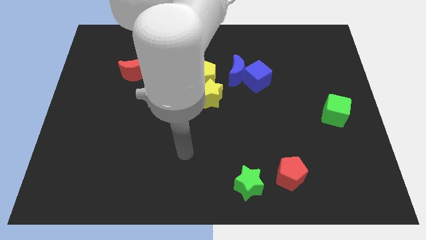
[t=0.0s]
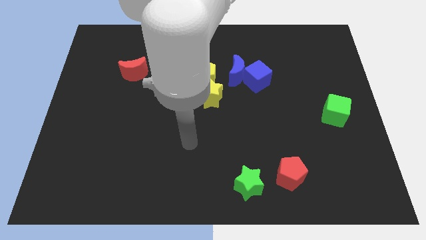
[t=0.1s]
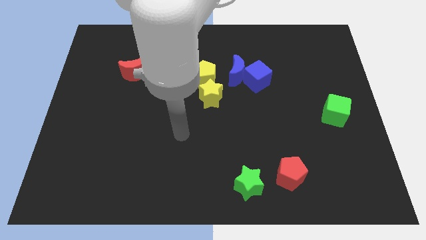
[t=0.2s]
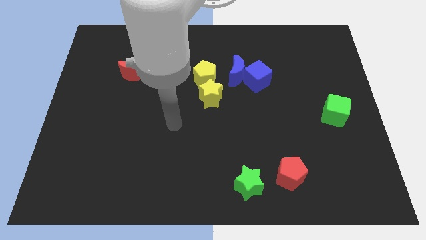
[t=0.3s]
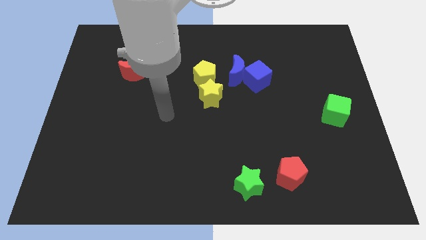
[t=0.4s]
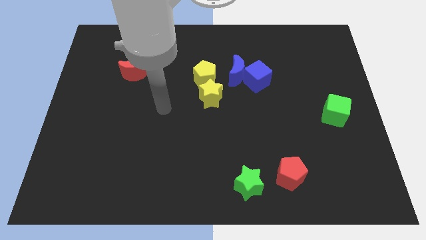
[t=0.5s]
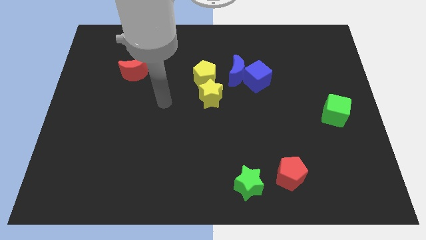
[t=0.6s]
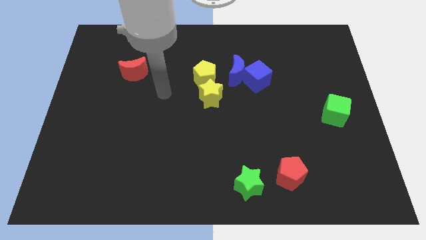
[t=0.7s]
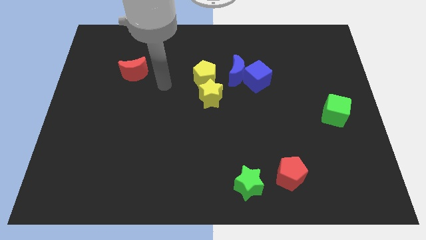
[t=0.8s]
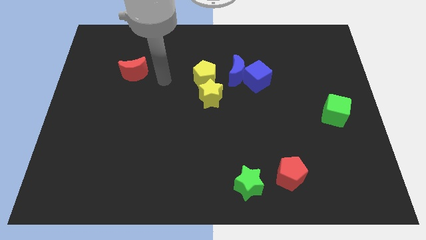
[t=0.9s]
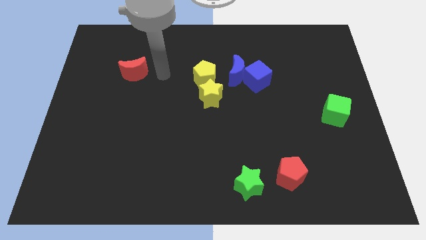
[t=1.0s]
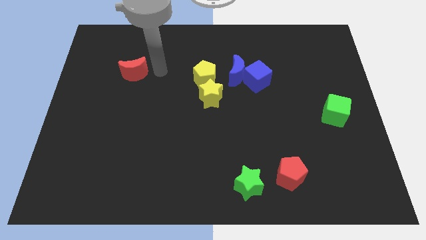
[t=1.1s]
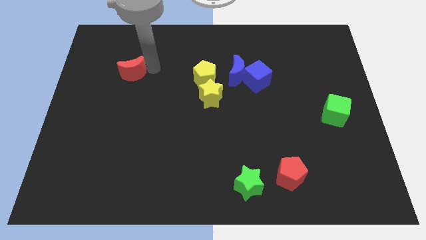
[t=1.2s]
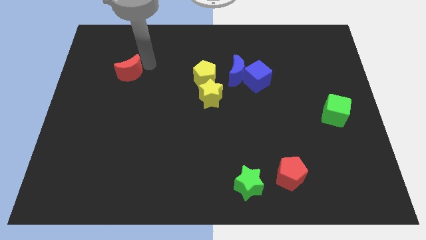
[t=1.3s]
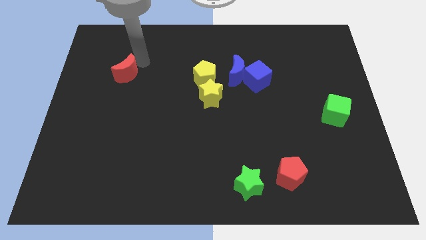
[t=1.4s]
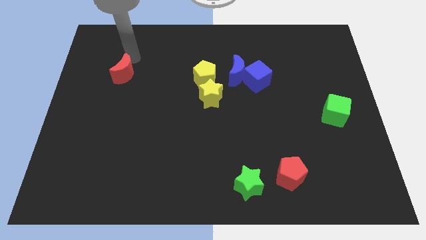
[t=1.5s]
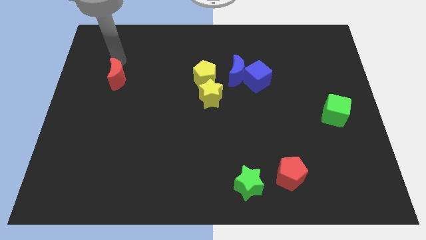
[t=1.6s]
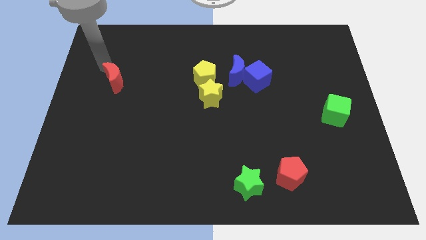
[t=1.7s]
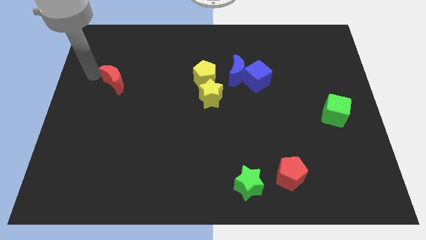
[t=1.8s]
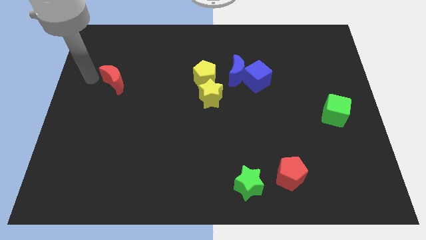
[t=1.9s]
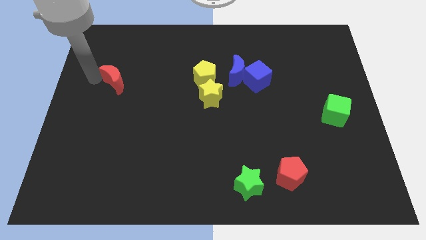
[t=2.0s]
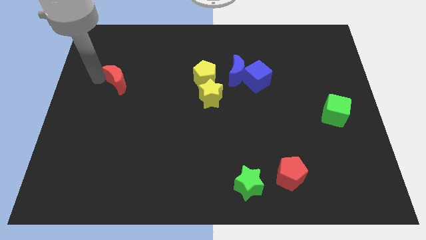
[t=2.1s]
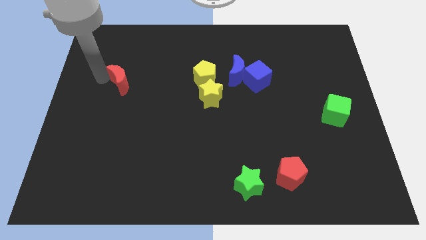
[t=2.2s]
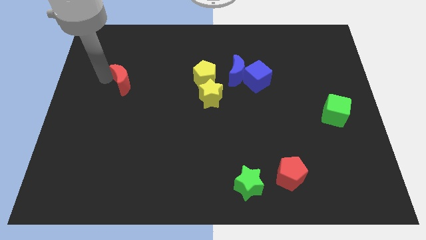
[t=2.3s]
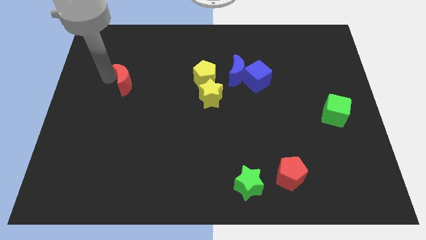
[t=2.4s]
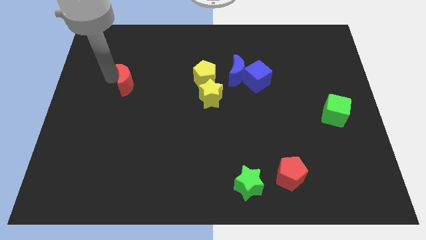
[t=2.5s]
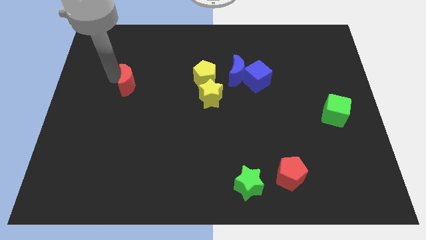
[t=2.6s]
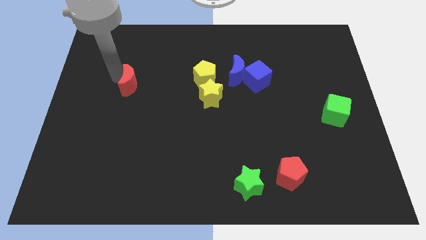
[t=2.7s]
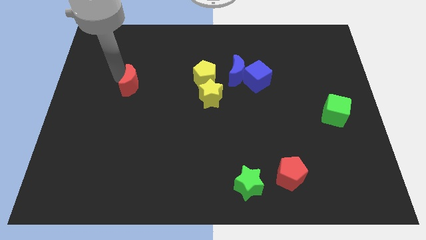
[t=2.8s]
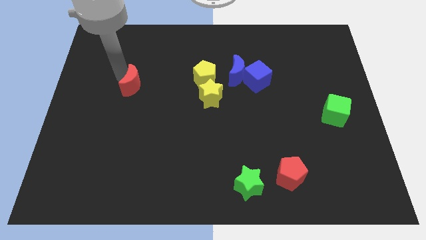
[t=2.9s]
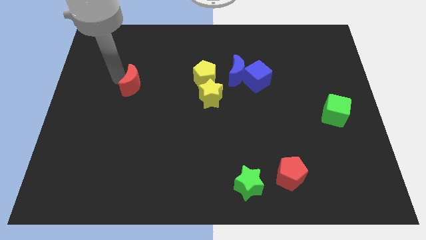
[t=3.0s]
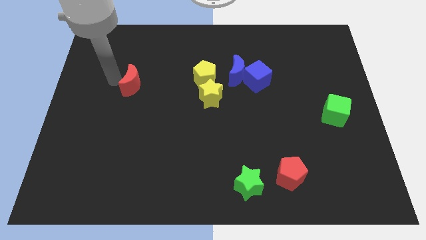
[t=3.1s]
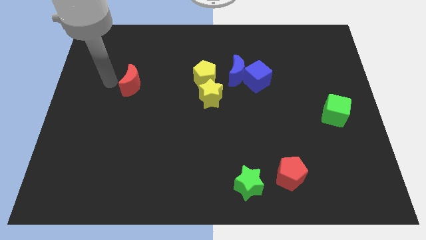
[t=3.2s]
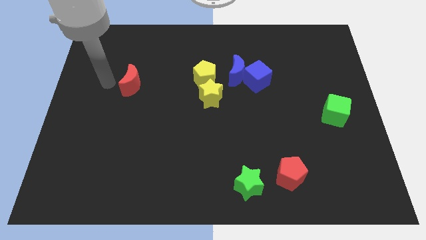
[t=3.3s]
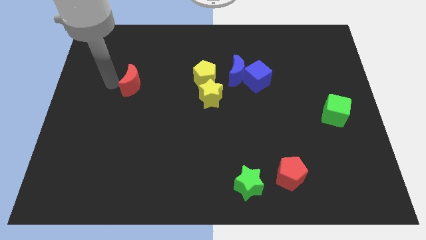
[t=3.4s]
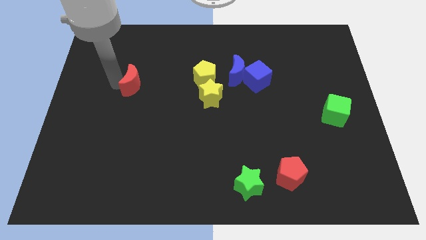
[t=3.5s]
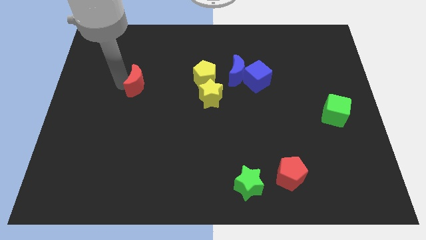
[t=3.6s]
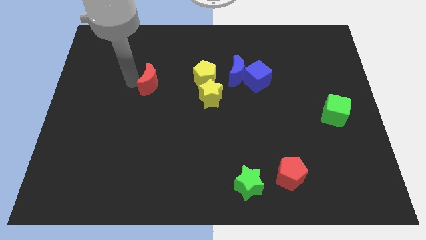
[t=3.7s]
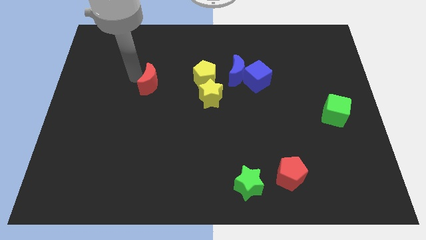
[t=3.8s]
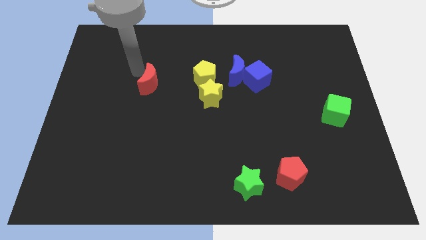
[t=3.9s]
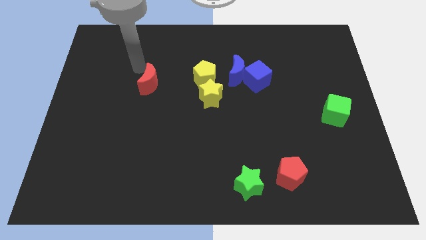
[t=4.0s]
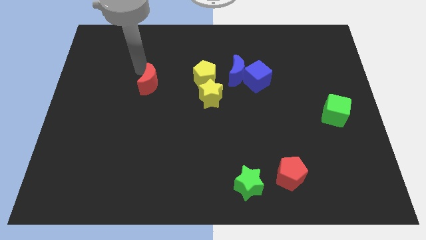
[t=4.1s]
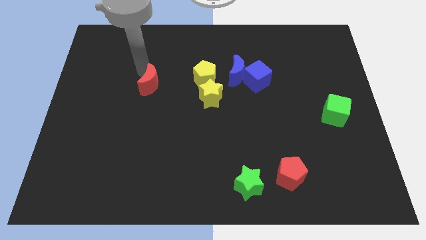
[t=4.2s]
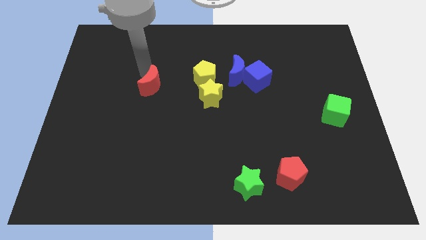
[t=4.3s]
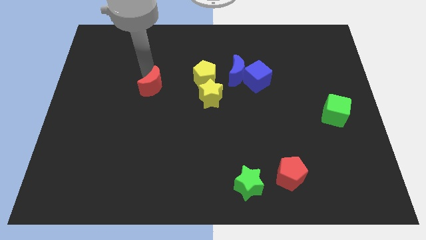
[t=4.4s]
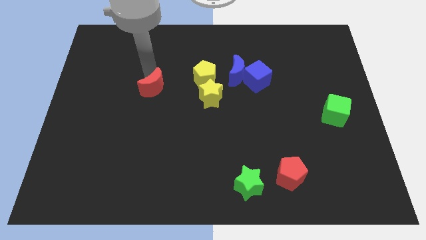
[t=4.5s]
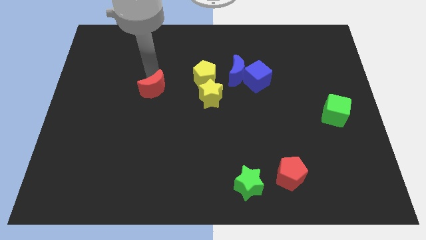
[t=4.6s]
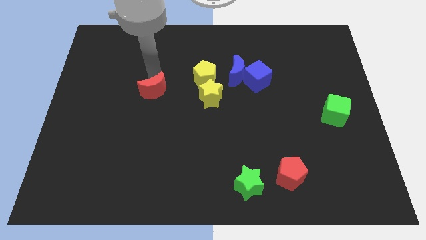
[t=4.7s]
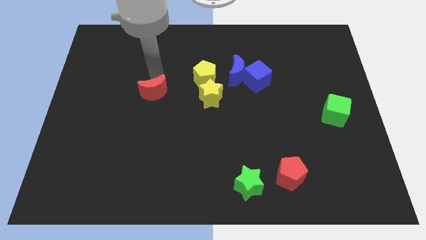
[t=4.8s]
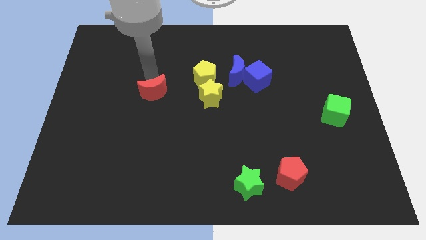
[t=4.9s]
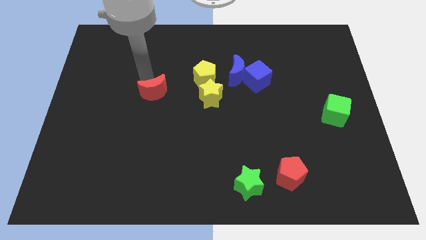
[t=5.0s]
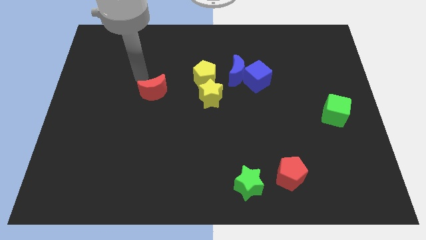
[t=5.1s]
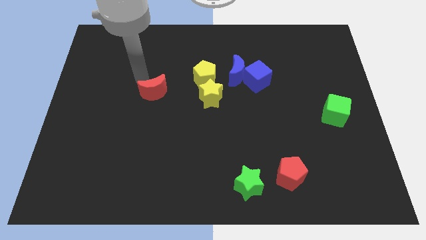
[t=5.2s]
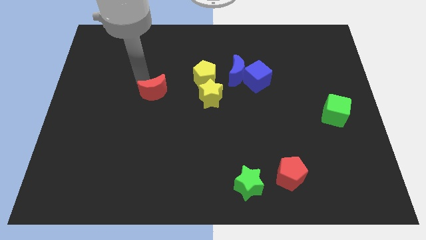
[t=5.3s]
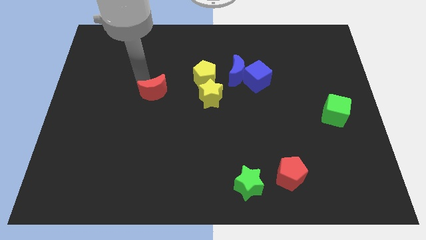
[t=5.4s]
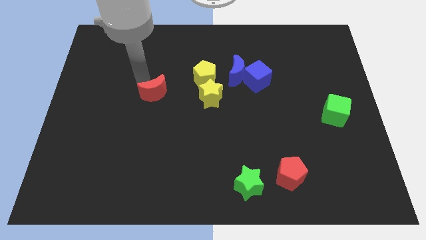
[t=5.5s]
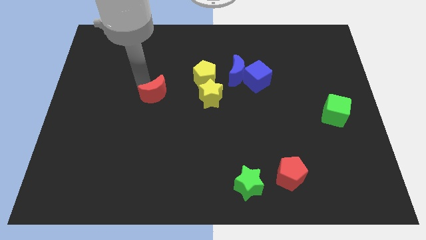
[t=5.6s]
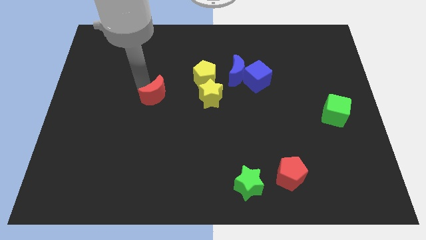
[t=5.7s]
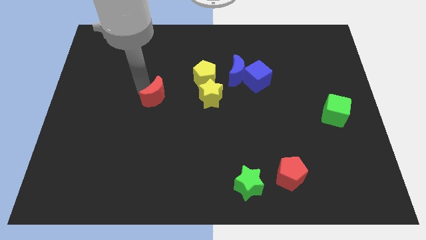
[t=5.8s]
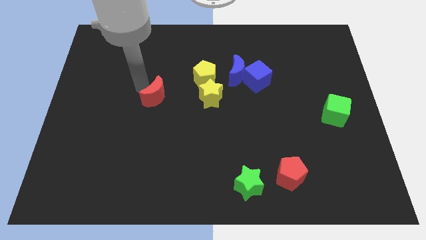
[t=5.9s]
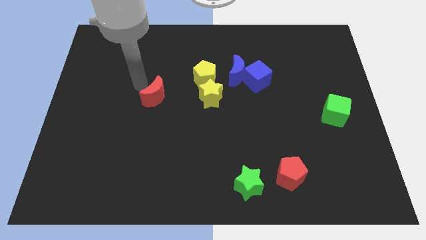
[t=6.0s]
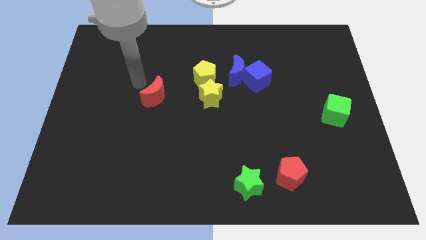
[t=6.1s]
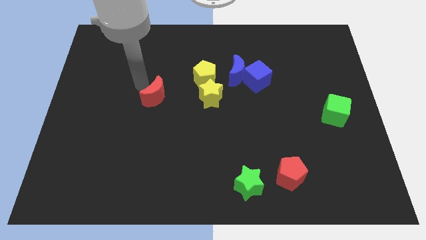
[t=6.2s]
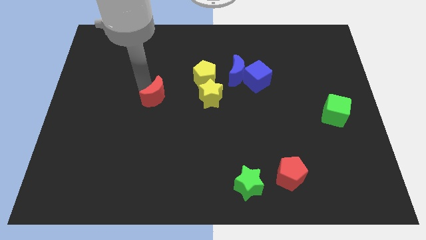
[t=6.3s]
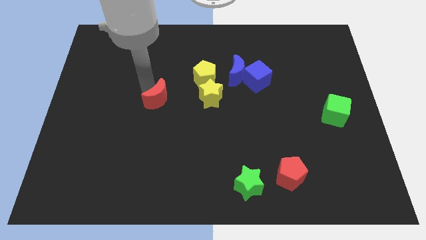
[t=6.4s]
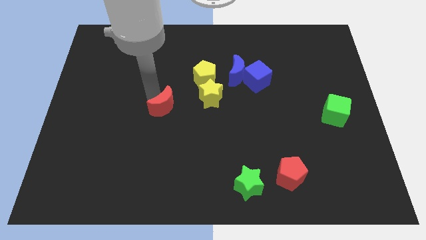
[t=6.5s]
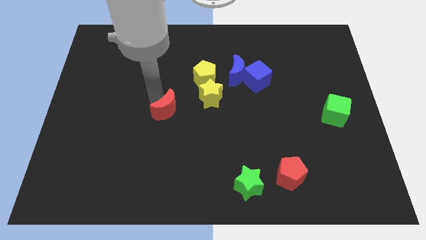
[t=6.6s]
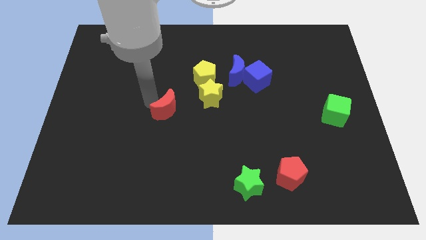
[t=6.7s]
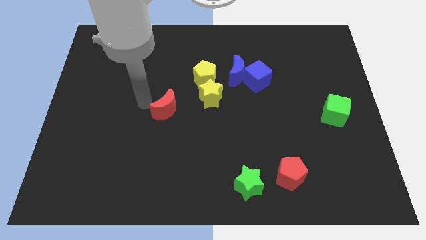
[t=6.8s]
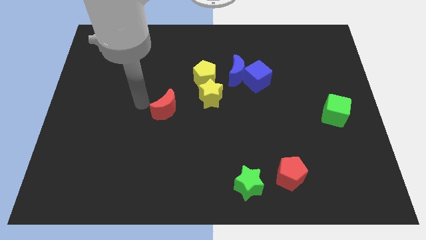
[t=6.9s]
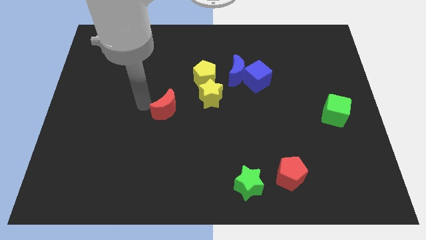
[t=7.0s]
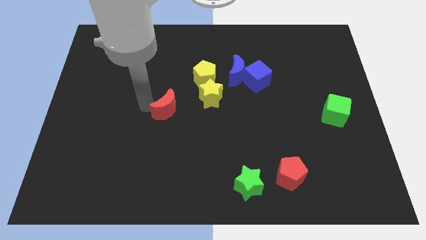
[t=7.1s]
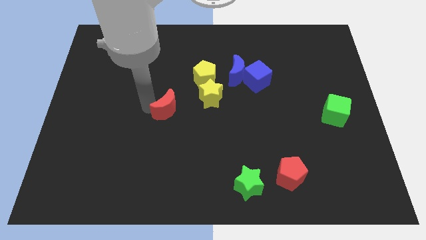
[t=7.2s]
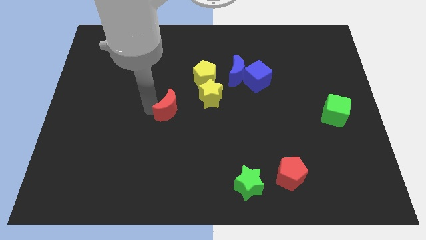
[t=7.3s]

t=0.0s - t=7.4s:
slide the red moon to the bottom left of the yellow star
